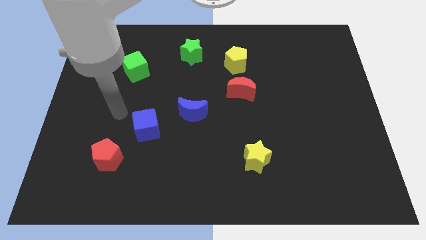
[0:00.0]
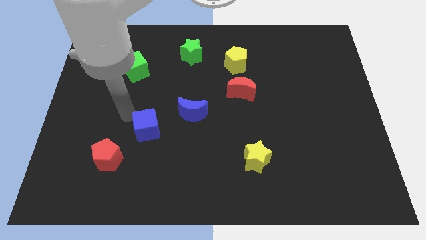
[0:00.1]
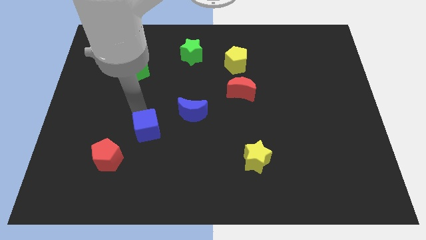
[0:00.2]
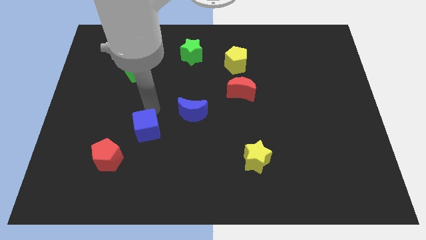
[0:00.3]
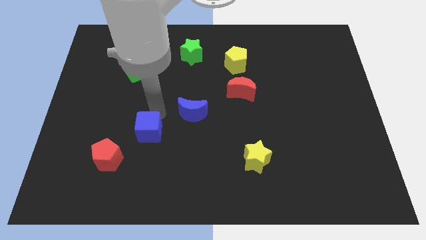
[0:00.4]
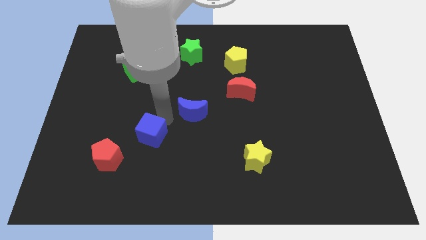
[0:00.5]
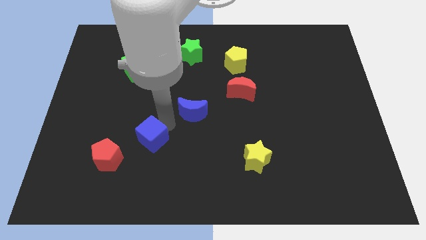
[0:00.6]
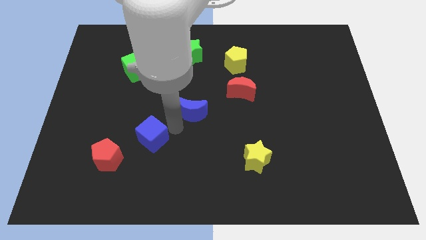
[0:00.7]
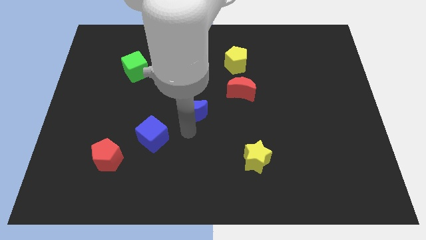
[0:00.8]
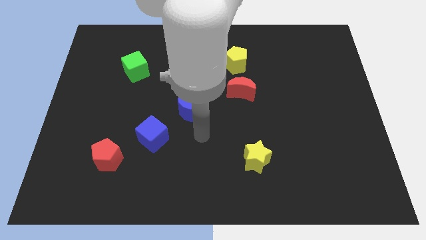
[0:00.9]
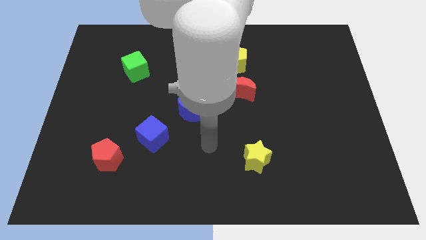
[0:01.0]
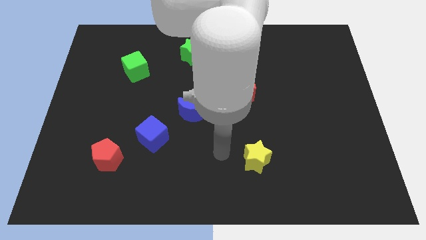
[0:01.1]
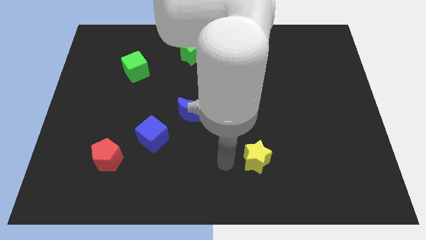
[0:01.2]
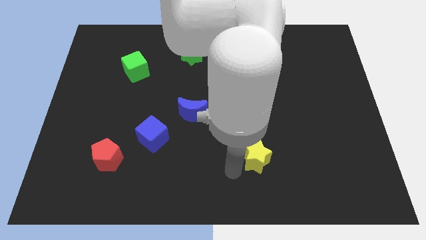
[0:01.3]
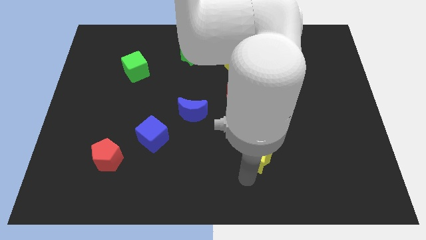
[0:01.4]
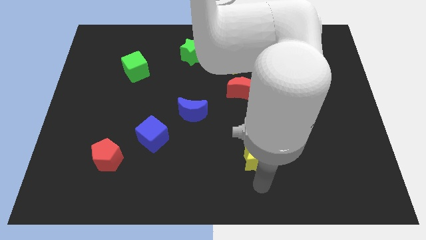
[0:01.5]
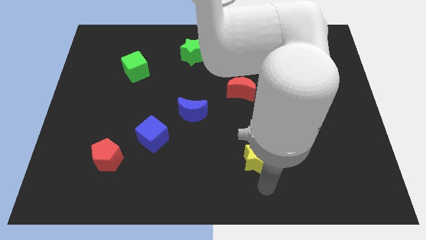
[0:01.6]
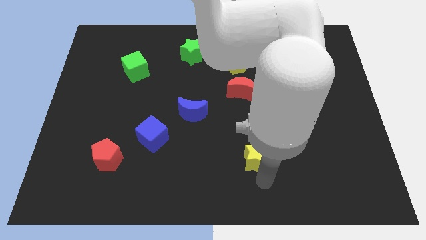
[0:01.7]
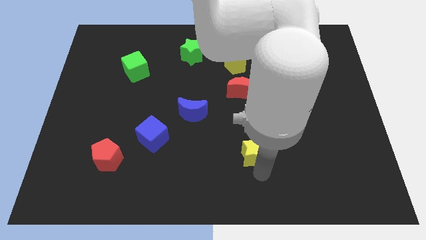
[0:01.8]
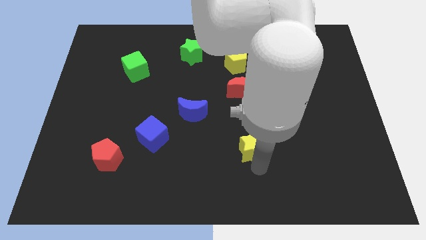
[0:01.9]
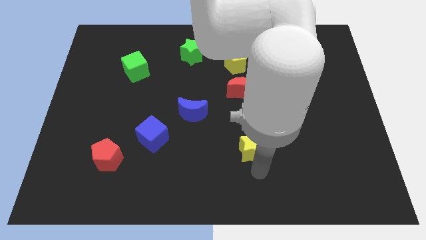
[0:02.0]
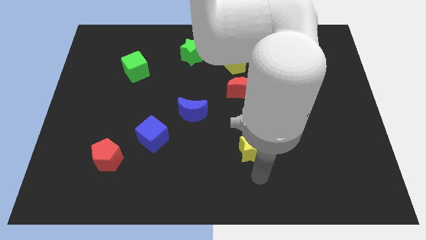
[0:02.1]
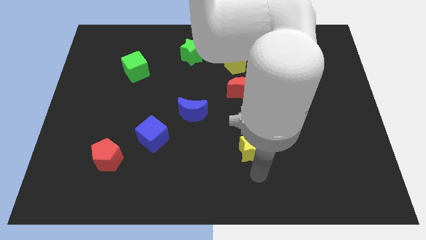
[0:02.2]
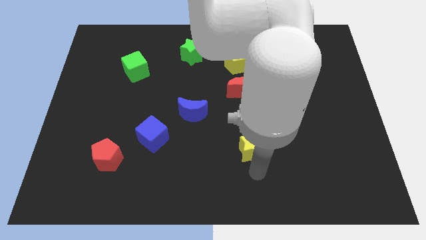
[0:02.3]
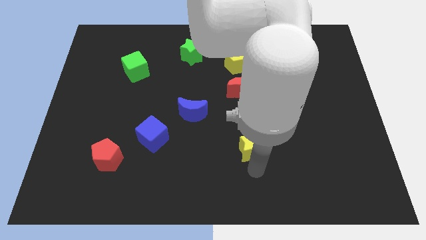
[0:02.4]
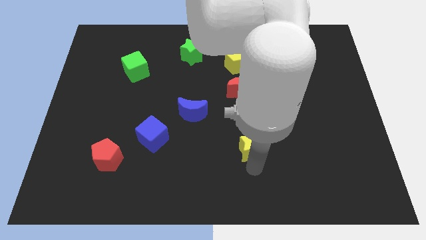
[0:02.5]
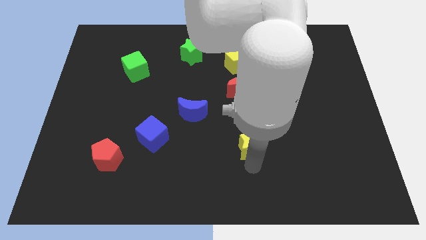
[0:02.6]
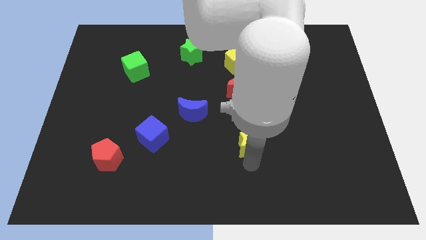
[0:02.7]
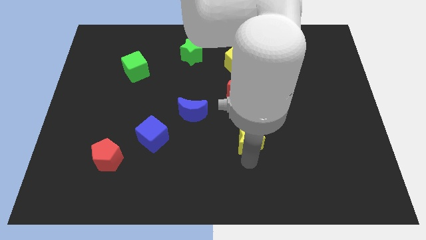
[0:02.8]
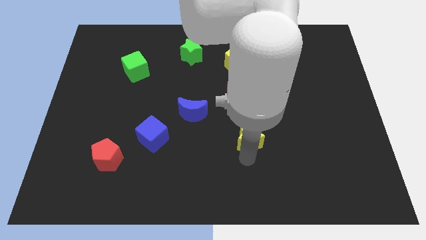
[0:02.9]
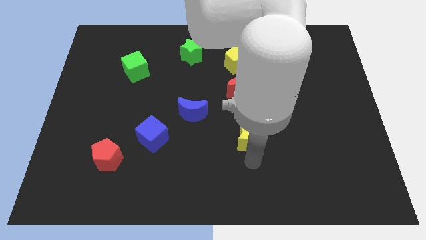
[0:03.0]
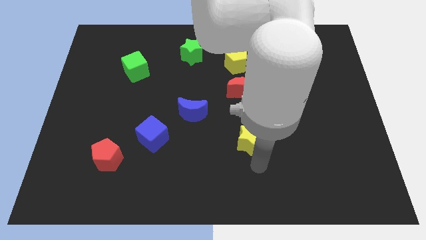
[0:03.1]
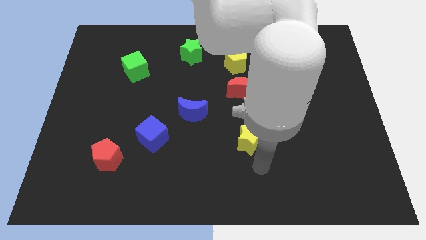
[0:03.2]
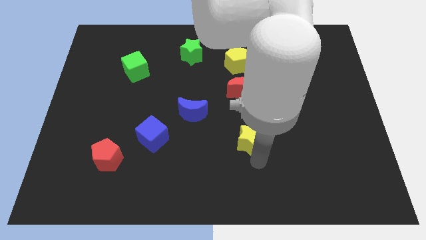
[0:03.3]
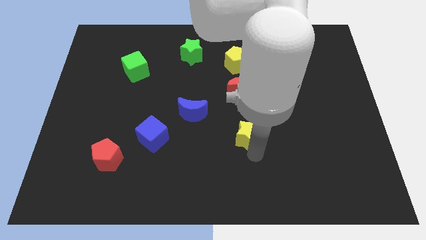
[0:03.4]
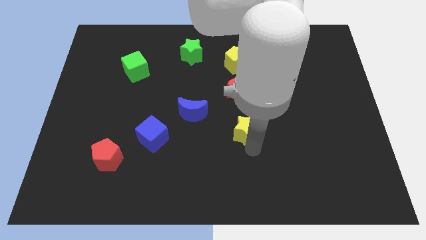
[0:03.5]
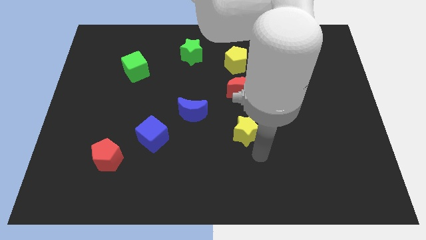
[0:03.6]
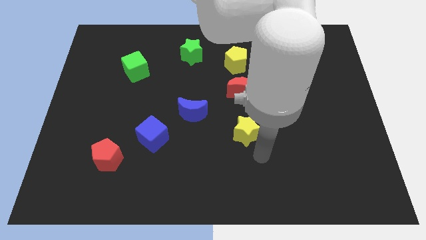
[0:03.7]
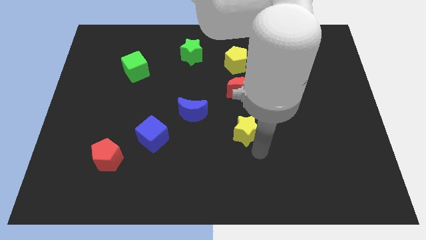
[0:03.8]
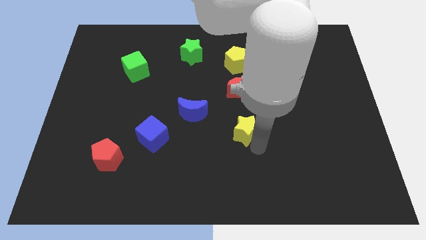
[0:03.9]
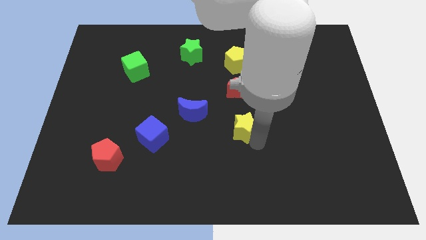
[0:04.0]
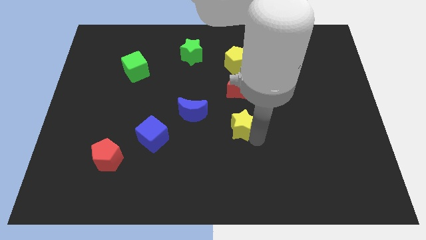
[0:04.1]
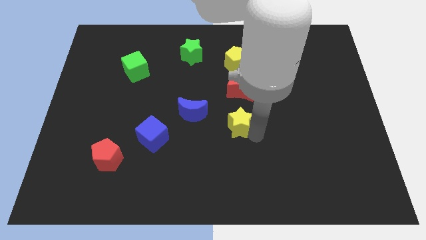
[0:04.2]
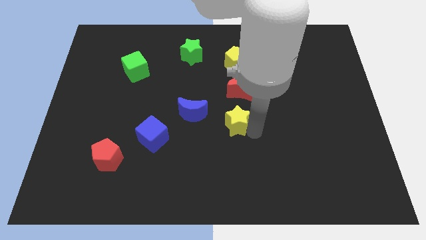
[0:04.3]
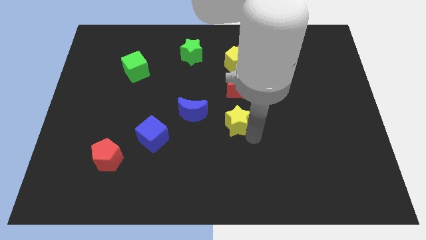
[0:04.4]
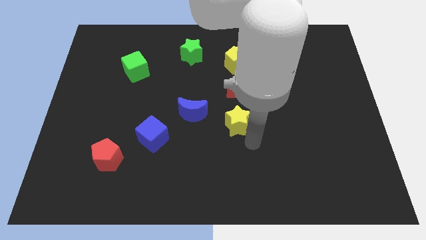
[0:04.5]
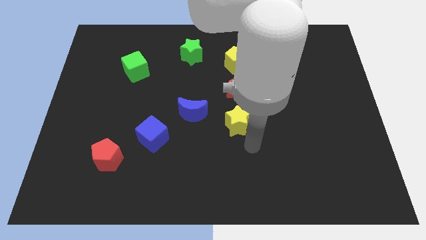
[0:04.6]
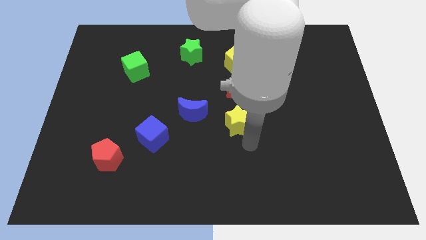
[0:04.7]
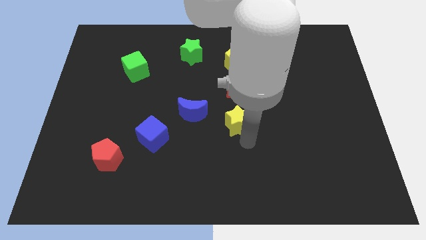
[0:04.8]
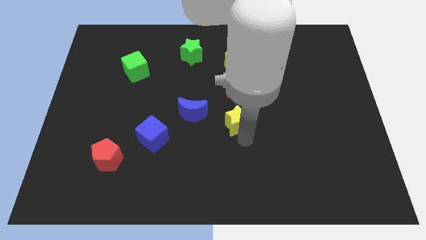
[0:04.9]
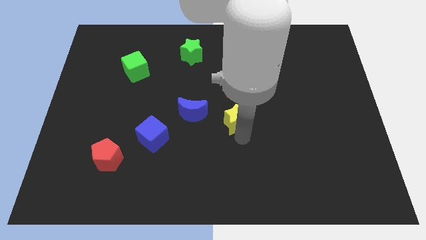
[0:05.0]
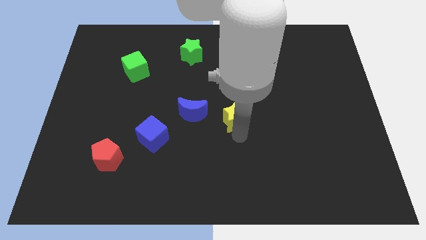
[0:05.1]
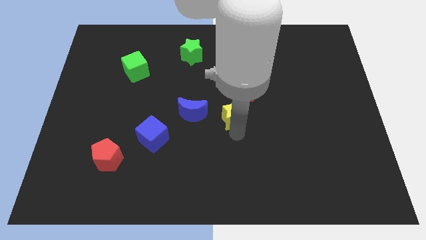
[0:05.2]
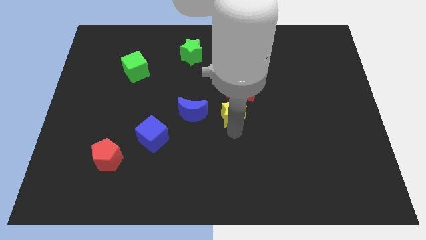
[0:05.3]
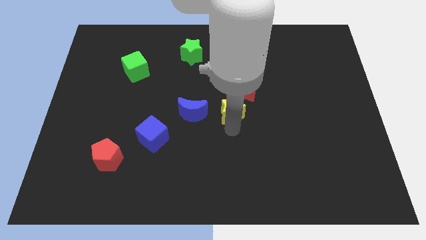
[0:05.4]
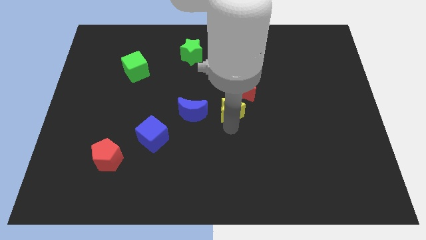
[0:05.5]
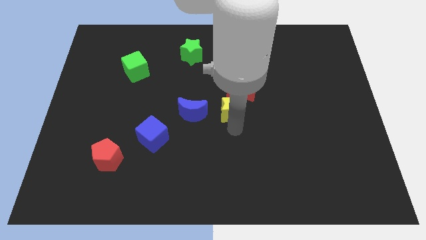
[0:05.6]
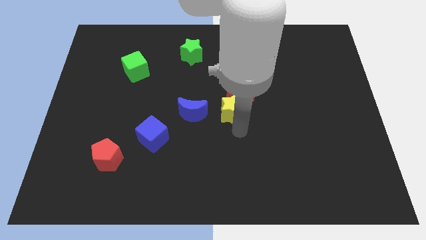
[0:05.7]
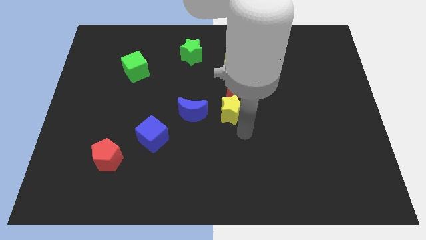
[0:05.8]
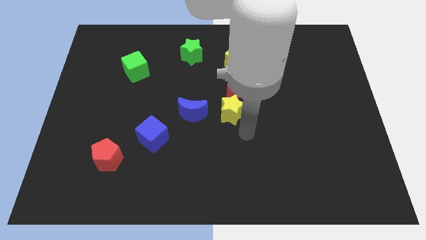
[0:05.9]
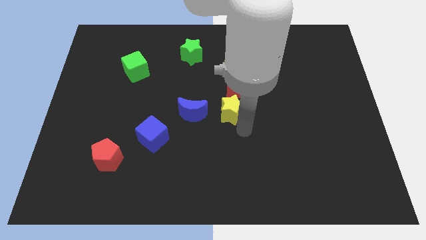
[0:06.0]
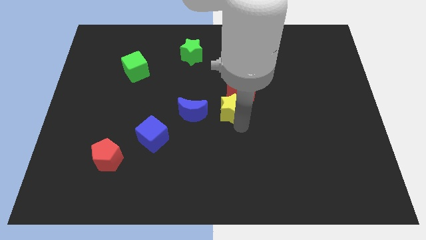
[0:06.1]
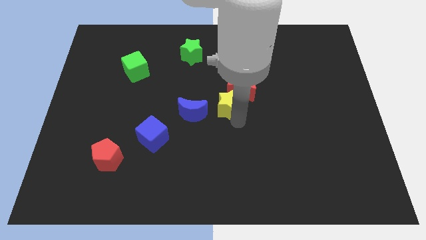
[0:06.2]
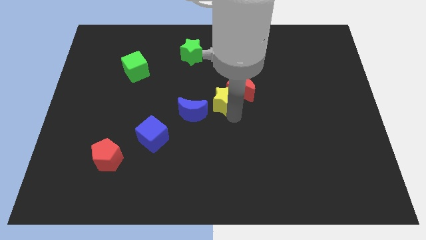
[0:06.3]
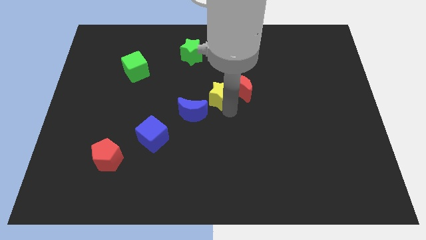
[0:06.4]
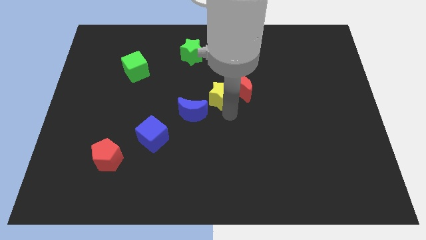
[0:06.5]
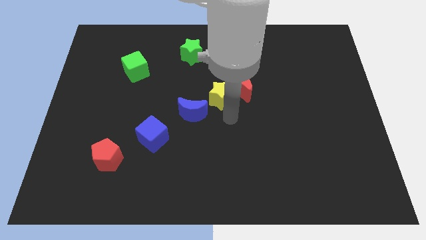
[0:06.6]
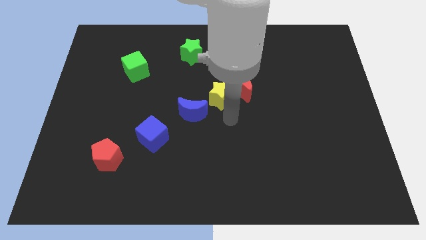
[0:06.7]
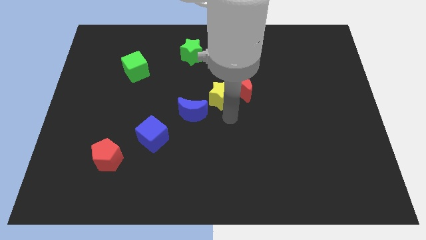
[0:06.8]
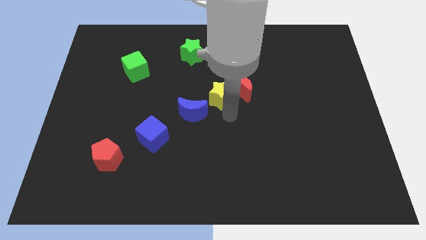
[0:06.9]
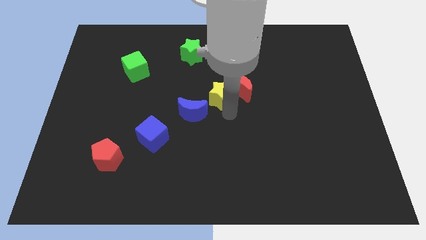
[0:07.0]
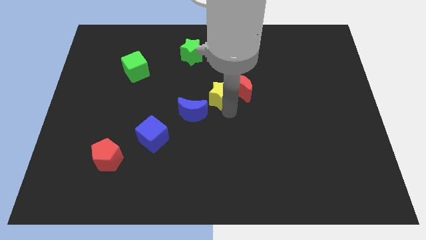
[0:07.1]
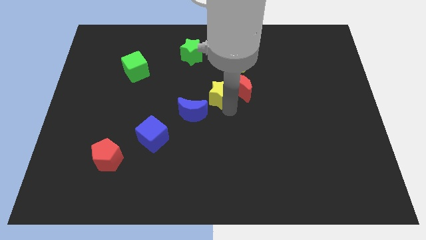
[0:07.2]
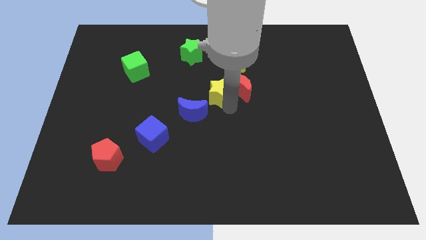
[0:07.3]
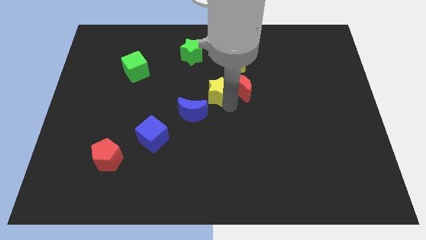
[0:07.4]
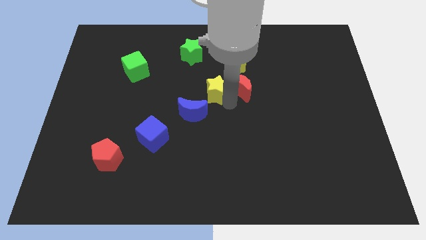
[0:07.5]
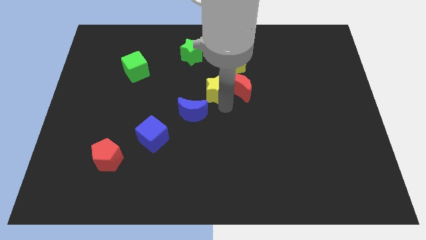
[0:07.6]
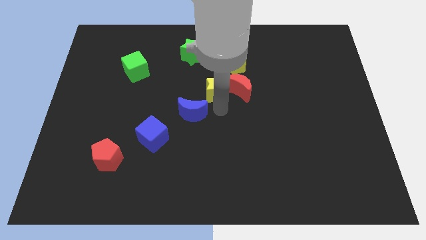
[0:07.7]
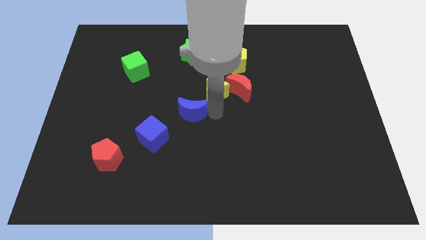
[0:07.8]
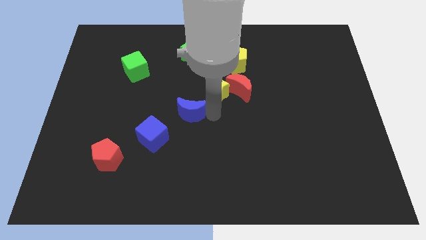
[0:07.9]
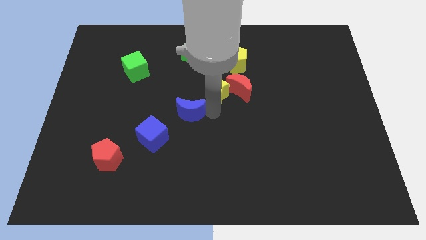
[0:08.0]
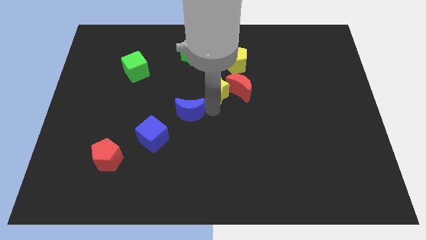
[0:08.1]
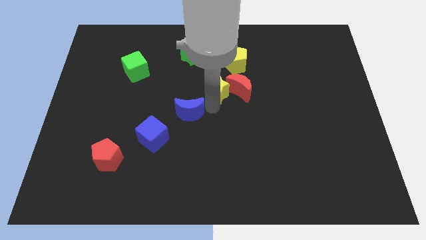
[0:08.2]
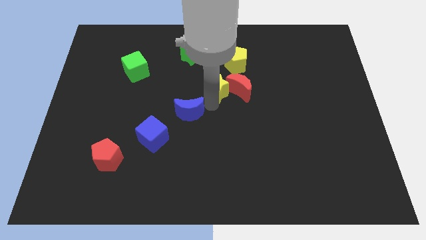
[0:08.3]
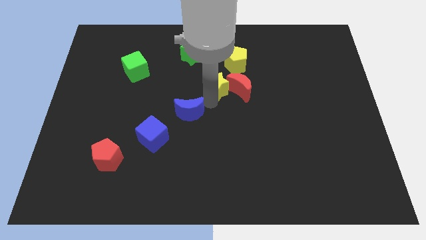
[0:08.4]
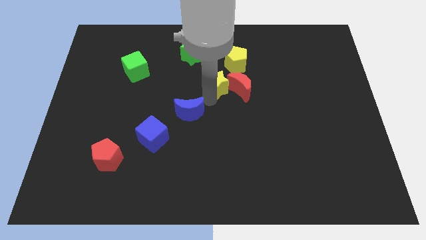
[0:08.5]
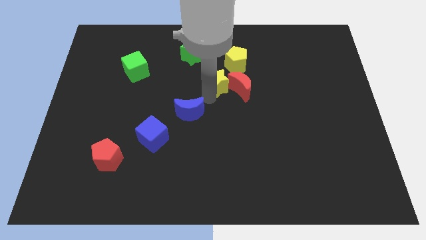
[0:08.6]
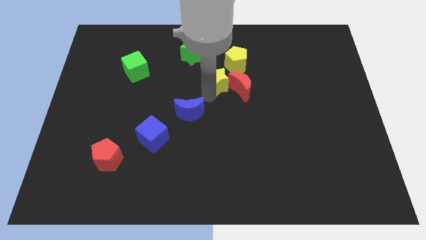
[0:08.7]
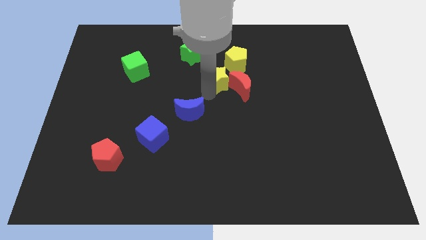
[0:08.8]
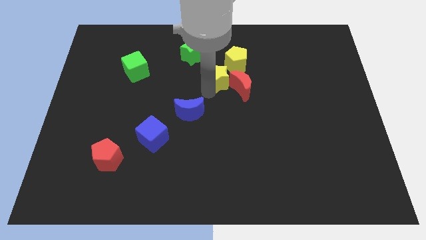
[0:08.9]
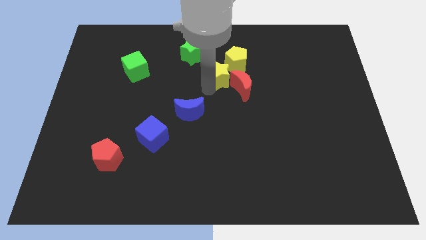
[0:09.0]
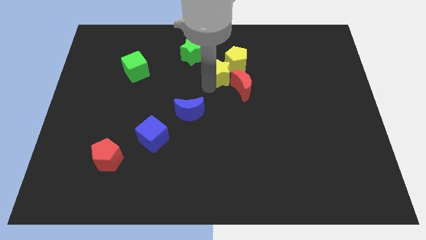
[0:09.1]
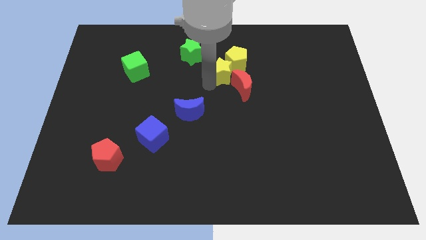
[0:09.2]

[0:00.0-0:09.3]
push the yellow star towards the yellow pentagon
